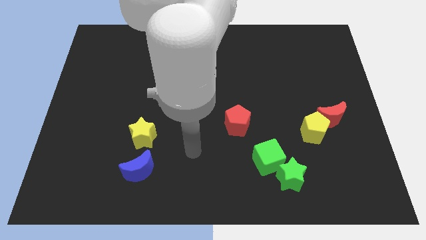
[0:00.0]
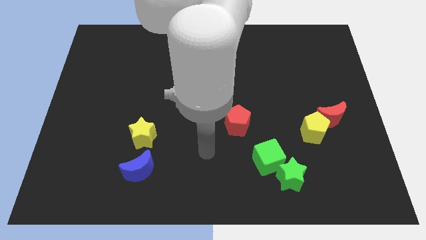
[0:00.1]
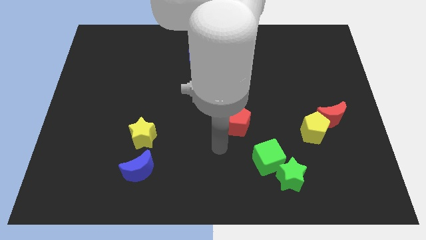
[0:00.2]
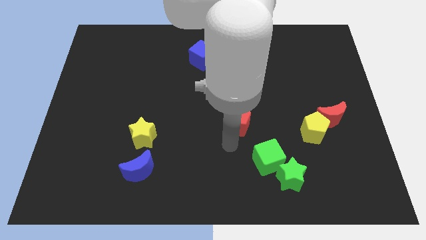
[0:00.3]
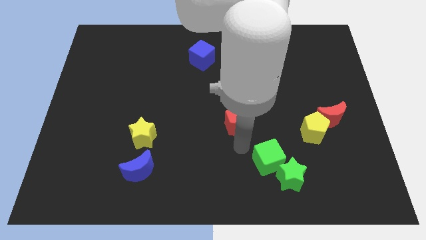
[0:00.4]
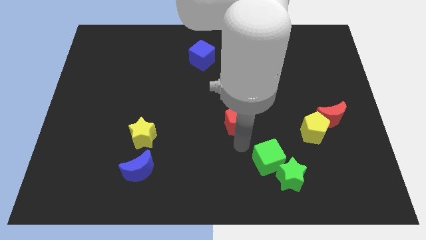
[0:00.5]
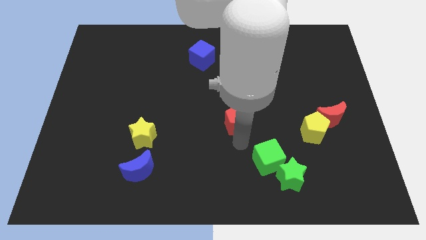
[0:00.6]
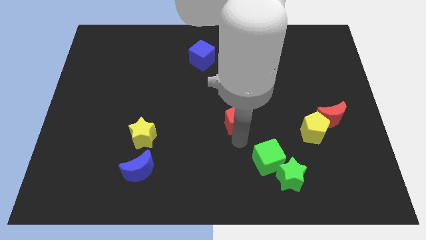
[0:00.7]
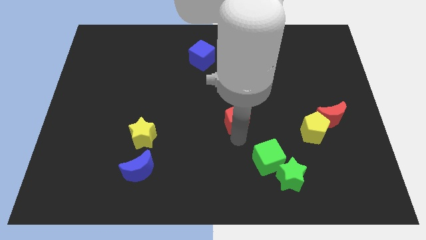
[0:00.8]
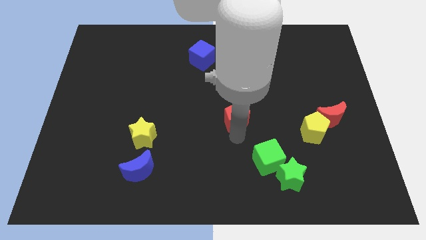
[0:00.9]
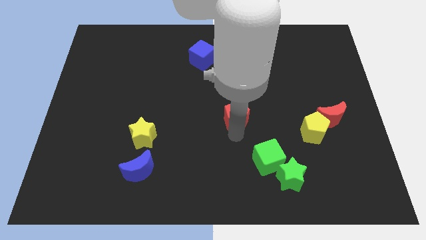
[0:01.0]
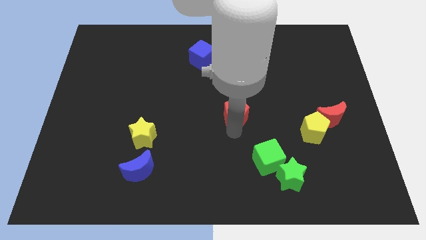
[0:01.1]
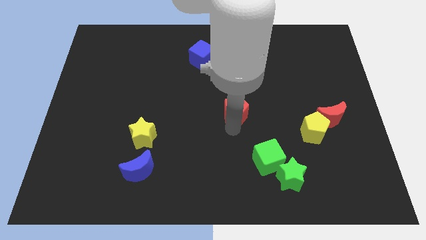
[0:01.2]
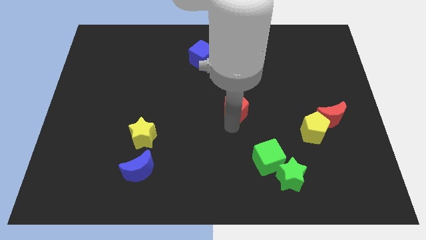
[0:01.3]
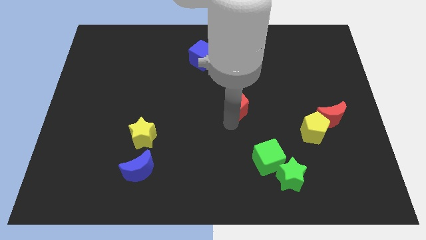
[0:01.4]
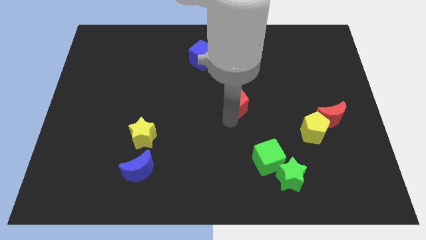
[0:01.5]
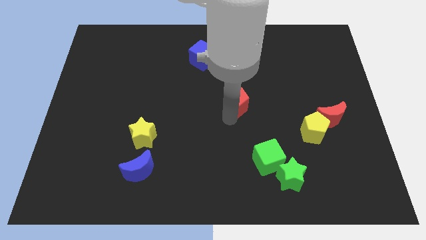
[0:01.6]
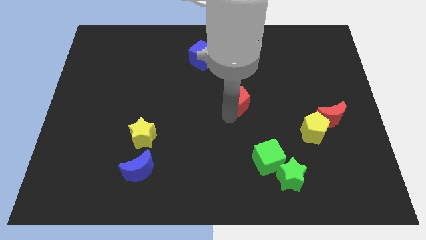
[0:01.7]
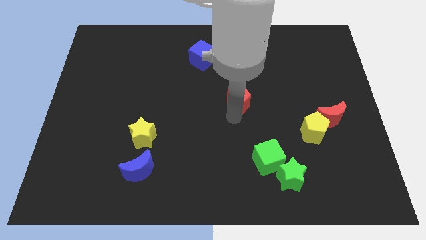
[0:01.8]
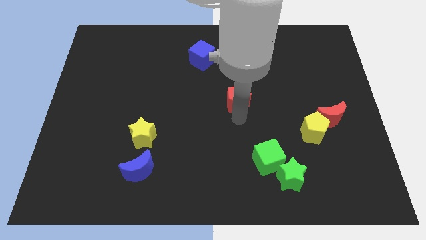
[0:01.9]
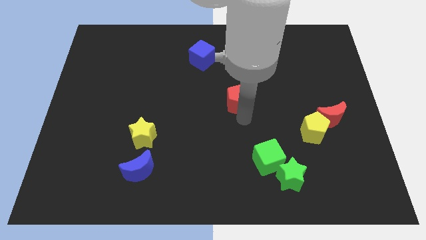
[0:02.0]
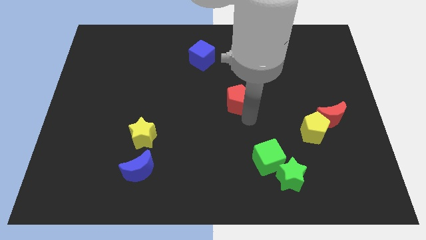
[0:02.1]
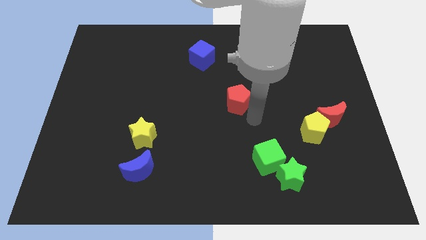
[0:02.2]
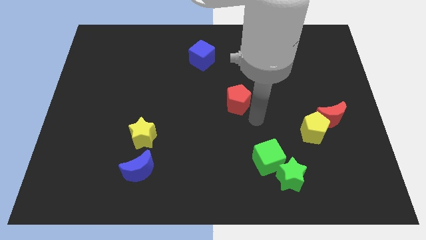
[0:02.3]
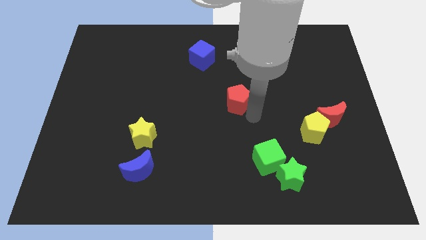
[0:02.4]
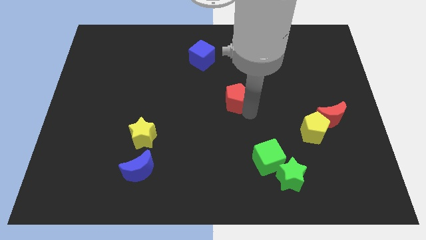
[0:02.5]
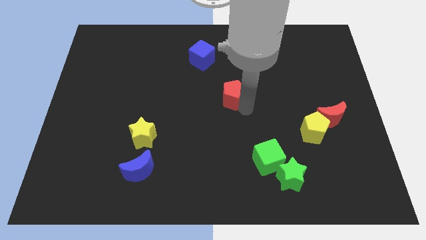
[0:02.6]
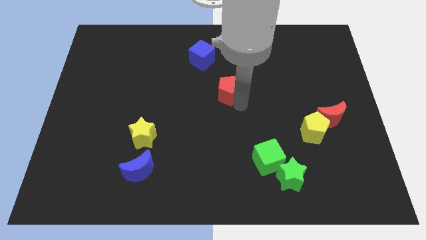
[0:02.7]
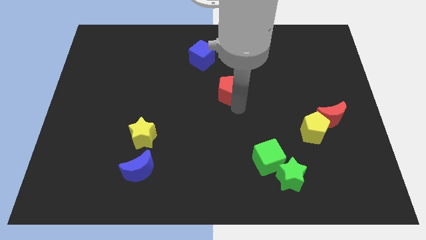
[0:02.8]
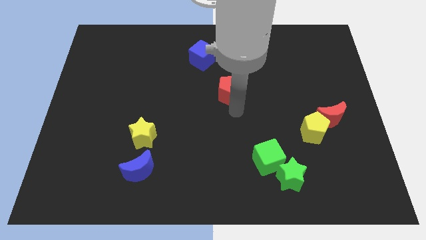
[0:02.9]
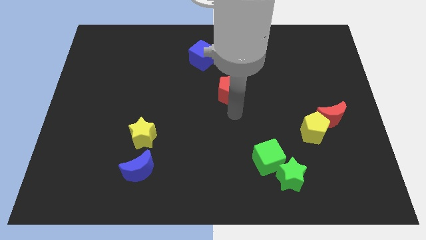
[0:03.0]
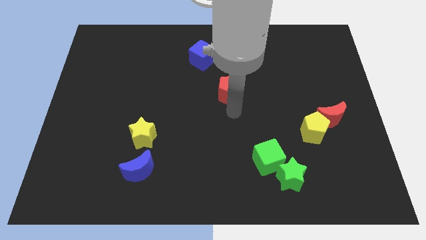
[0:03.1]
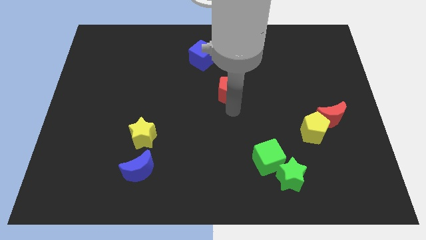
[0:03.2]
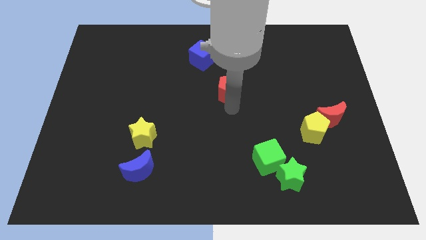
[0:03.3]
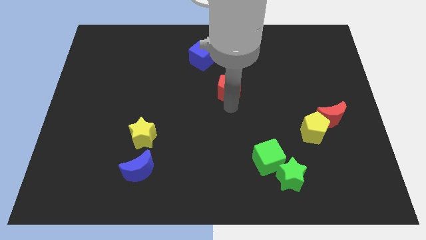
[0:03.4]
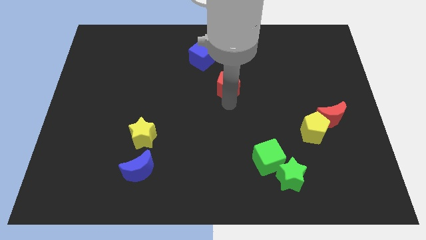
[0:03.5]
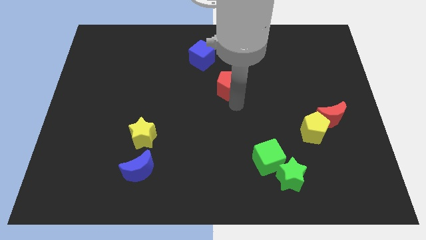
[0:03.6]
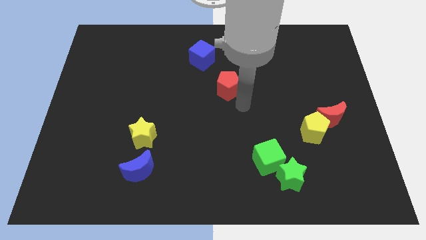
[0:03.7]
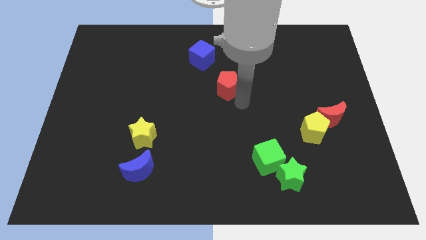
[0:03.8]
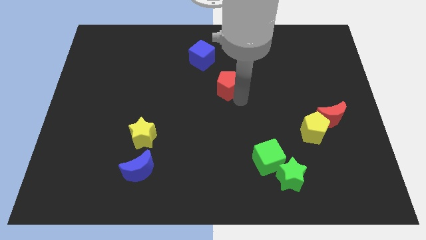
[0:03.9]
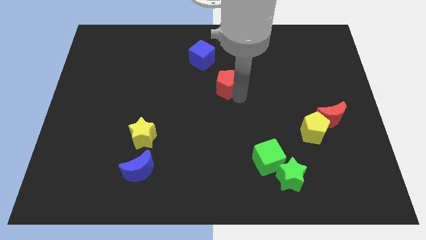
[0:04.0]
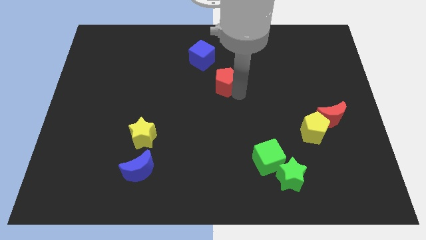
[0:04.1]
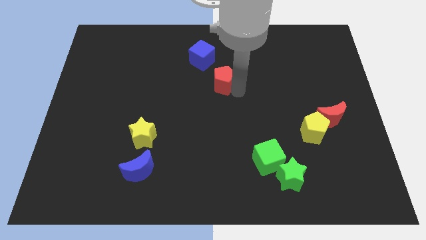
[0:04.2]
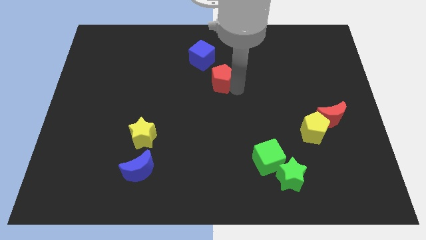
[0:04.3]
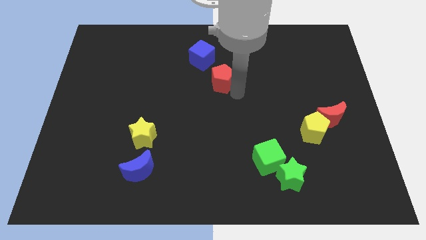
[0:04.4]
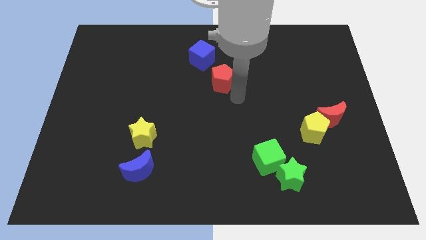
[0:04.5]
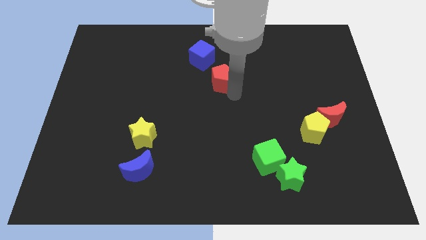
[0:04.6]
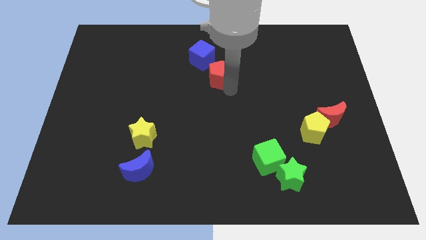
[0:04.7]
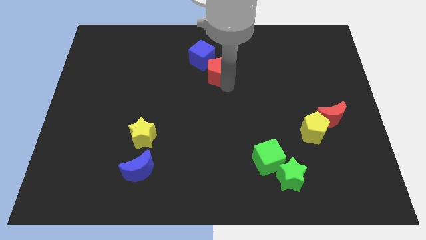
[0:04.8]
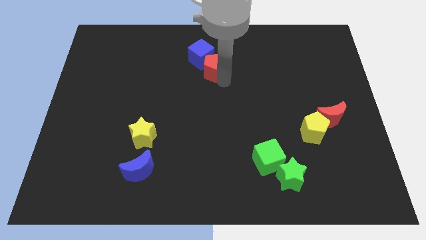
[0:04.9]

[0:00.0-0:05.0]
push the red pentagon close to the blue cube

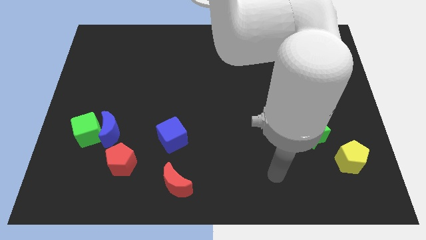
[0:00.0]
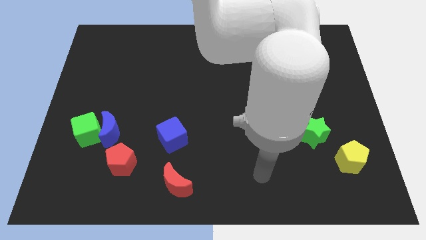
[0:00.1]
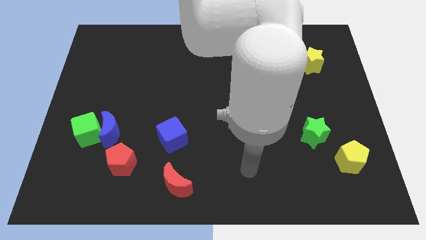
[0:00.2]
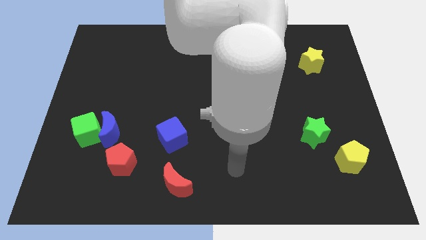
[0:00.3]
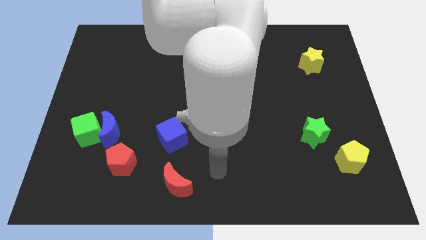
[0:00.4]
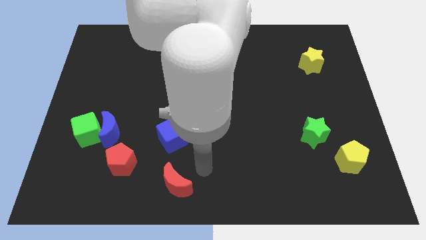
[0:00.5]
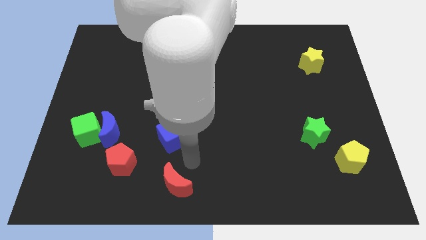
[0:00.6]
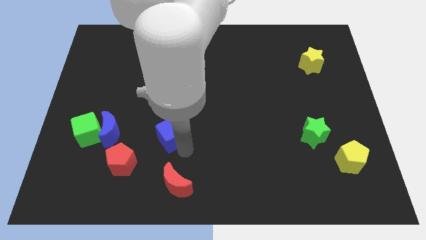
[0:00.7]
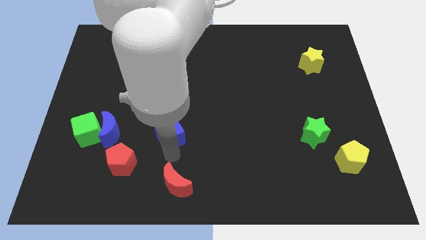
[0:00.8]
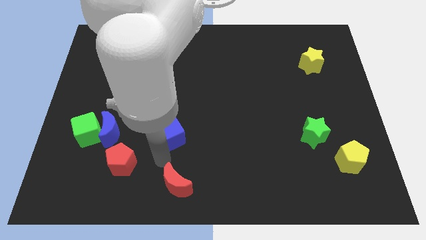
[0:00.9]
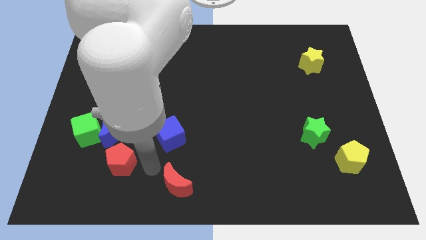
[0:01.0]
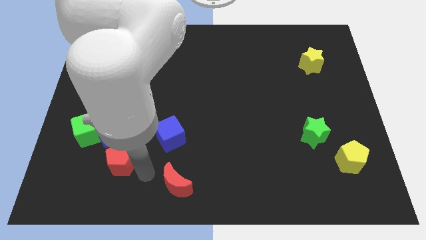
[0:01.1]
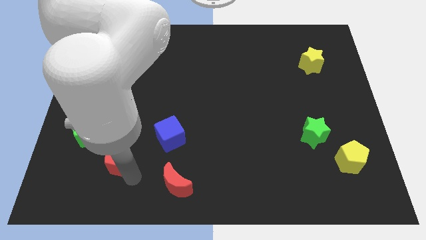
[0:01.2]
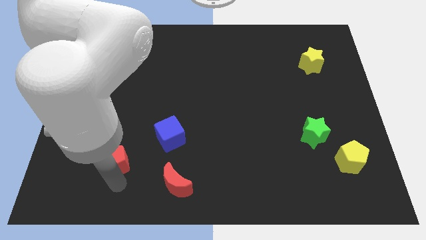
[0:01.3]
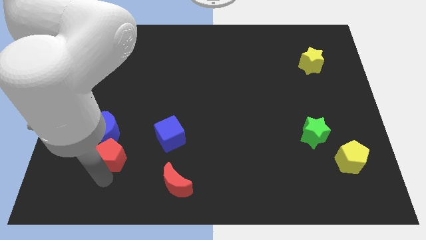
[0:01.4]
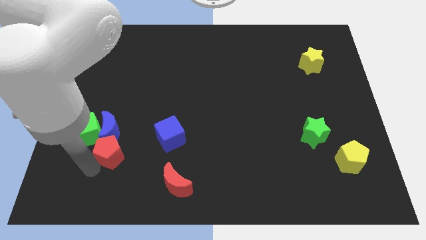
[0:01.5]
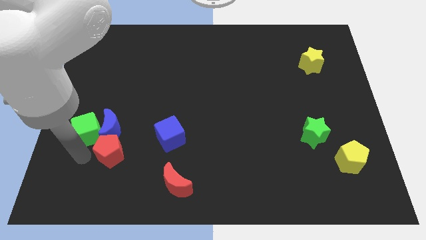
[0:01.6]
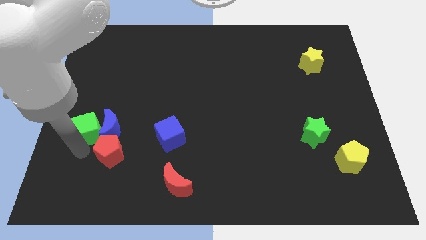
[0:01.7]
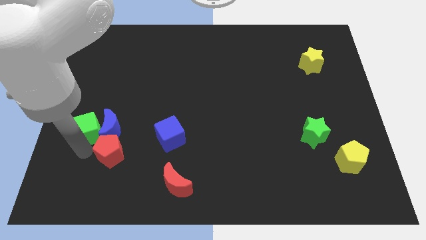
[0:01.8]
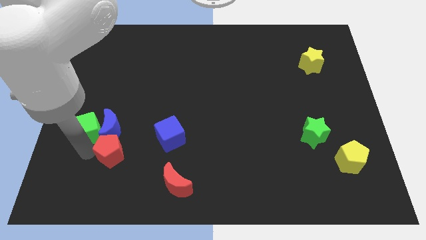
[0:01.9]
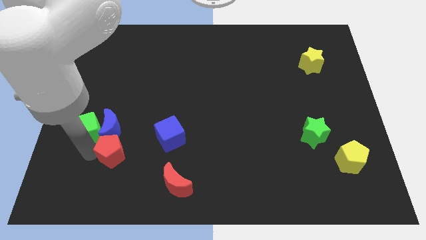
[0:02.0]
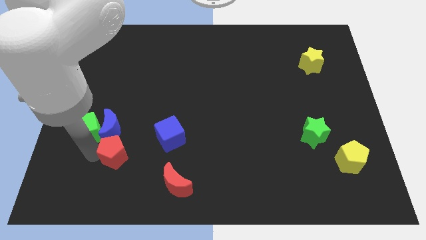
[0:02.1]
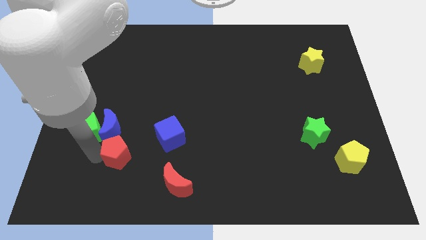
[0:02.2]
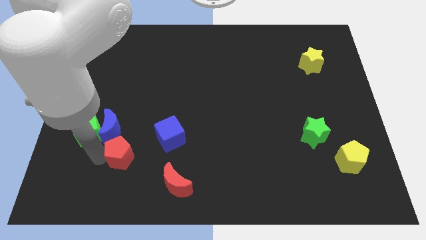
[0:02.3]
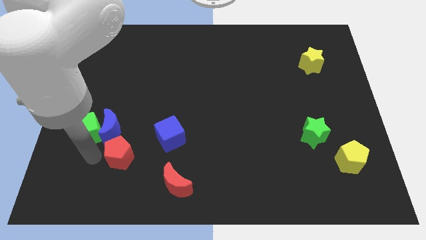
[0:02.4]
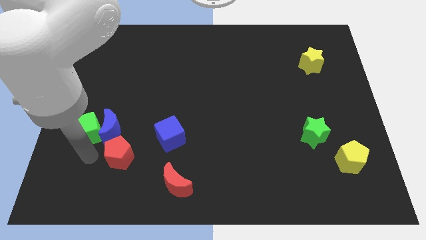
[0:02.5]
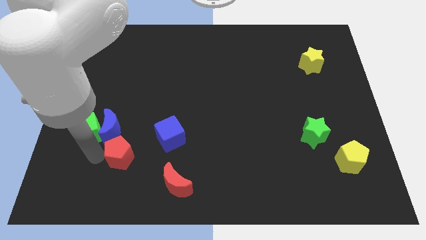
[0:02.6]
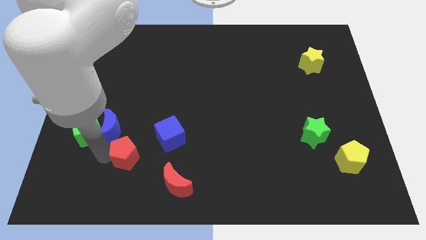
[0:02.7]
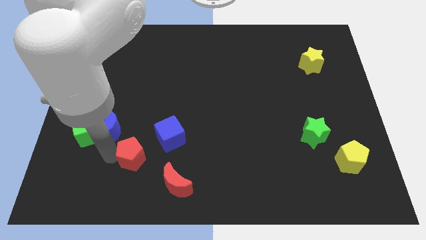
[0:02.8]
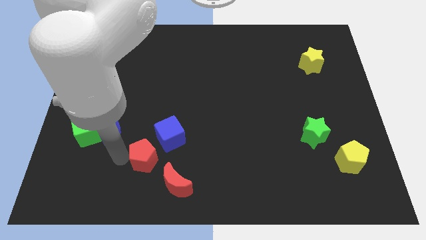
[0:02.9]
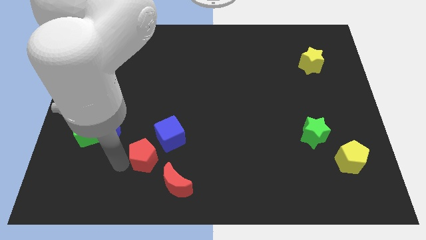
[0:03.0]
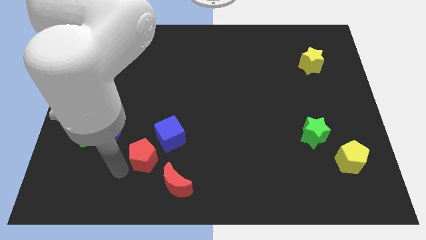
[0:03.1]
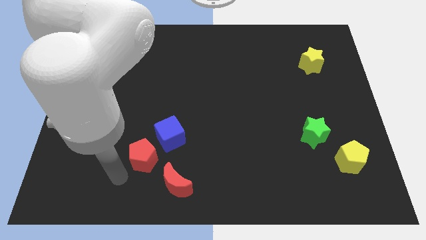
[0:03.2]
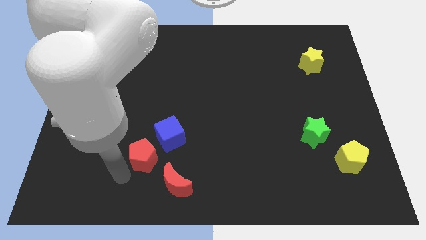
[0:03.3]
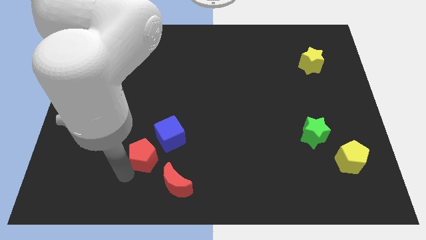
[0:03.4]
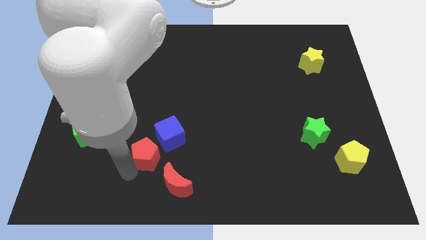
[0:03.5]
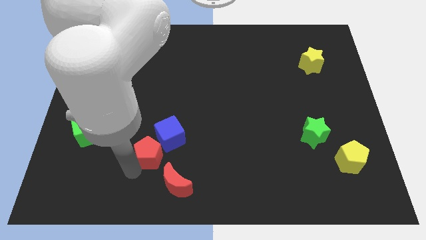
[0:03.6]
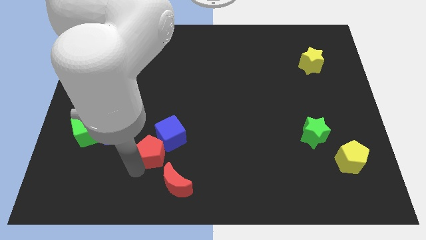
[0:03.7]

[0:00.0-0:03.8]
move the red pentagon next to the blue cube
